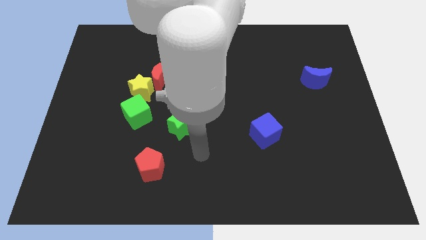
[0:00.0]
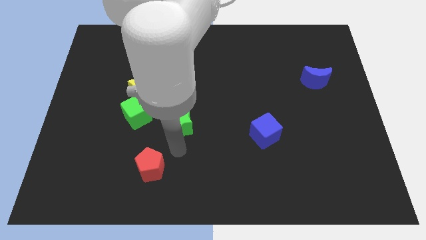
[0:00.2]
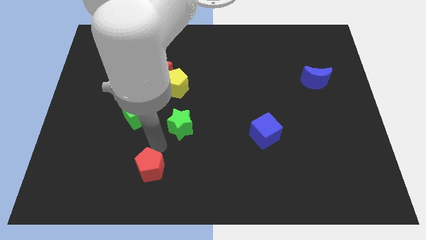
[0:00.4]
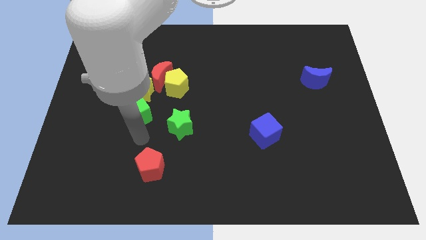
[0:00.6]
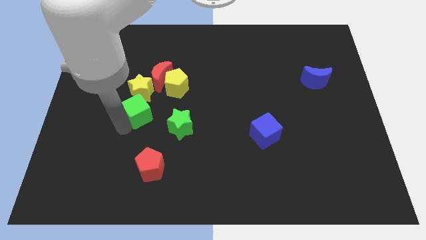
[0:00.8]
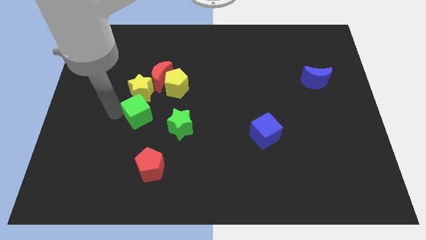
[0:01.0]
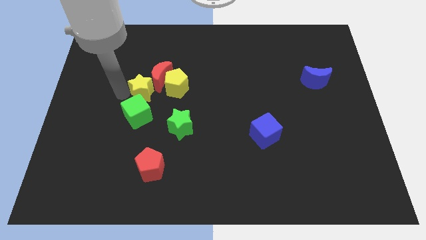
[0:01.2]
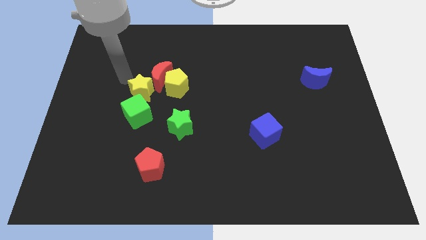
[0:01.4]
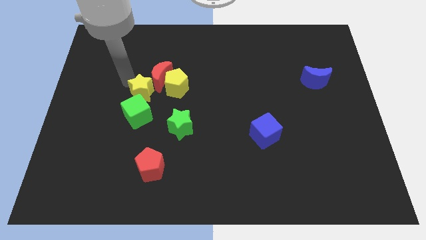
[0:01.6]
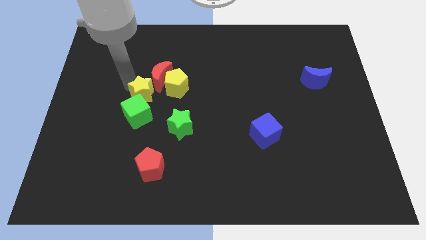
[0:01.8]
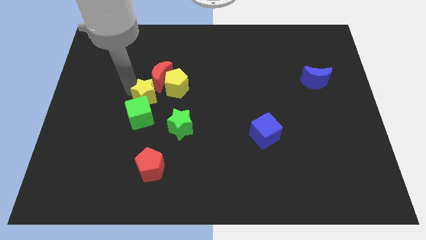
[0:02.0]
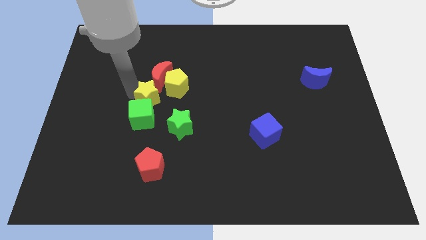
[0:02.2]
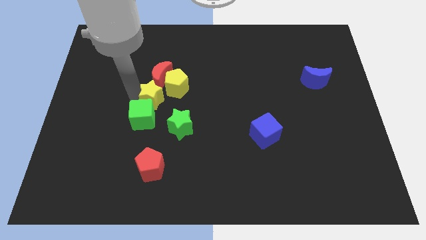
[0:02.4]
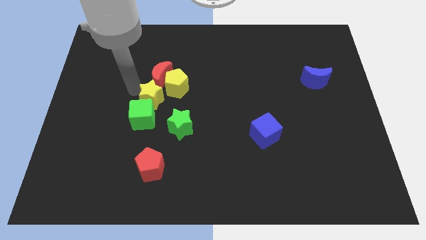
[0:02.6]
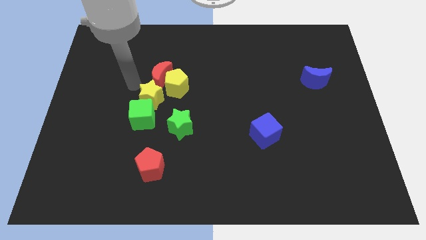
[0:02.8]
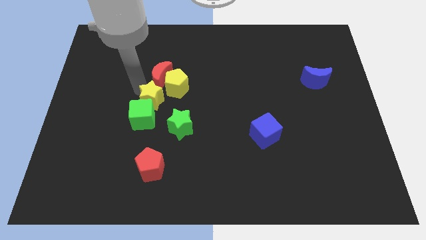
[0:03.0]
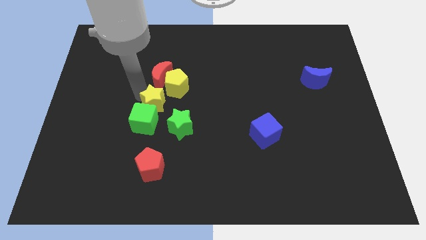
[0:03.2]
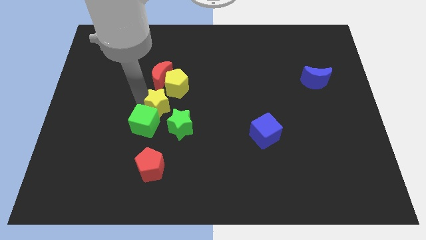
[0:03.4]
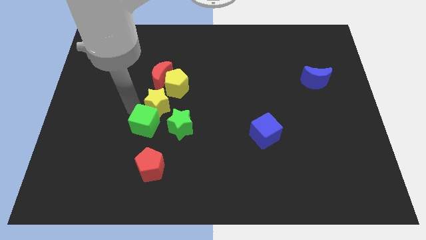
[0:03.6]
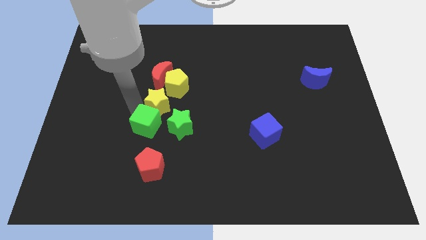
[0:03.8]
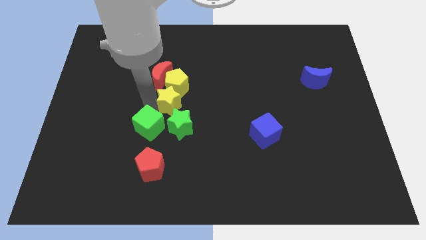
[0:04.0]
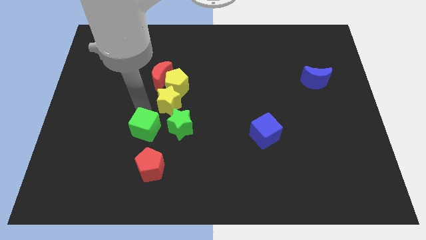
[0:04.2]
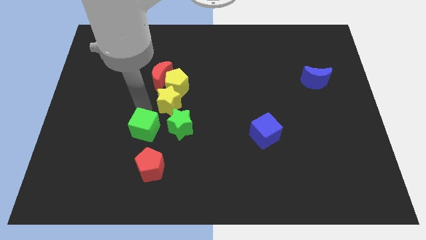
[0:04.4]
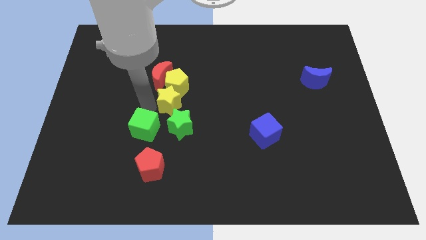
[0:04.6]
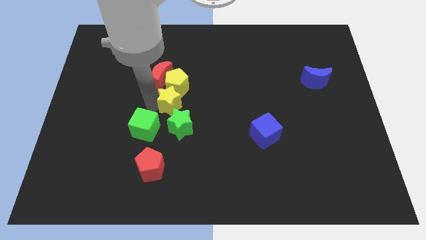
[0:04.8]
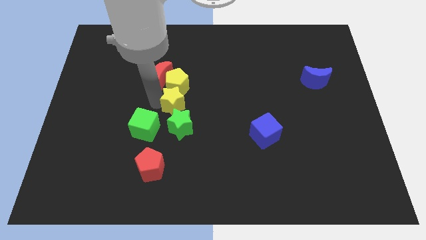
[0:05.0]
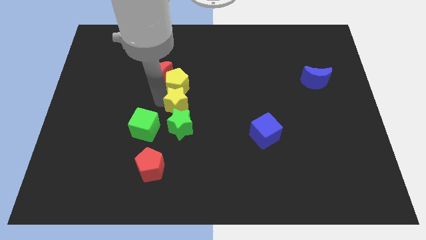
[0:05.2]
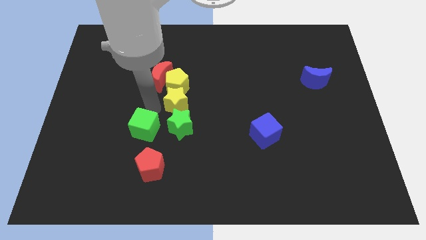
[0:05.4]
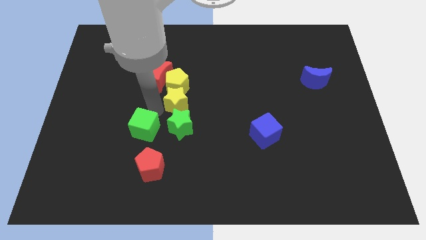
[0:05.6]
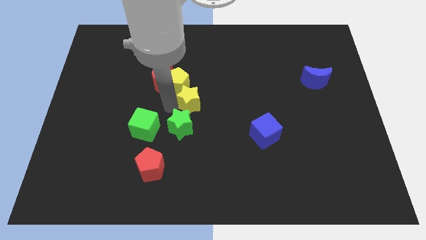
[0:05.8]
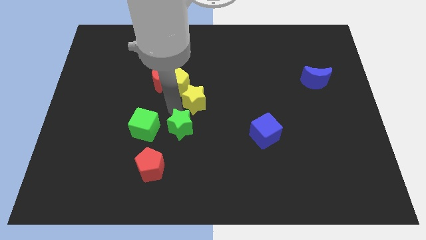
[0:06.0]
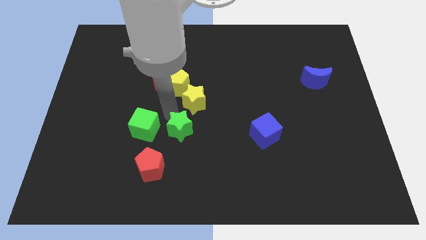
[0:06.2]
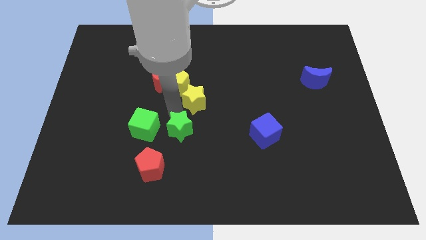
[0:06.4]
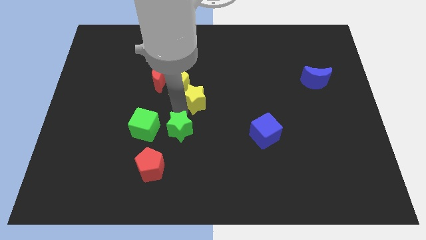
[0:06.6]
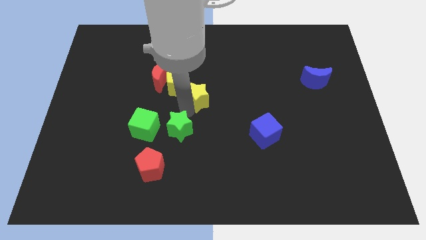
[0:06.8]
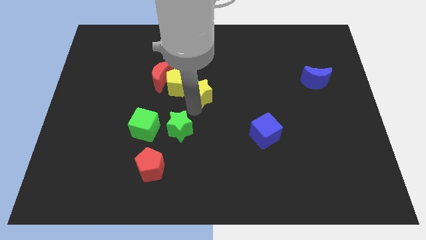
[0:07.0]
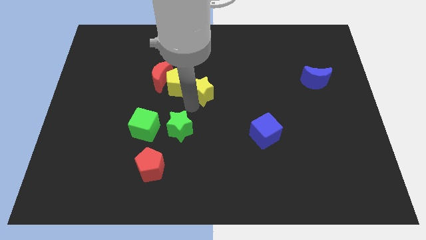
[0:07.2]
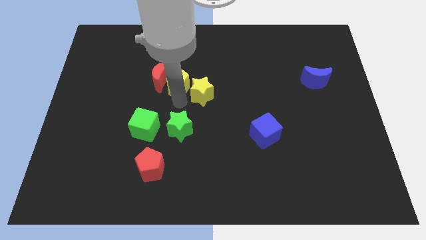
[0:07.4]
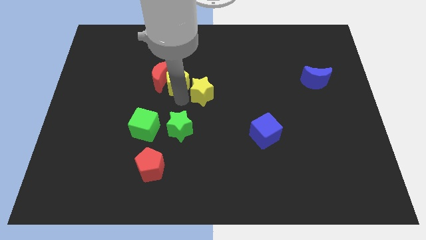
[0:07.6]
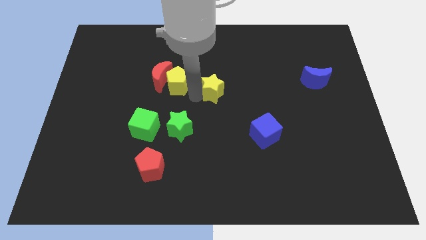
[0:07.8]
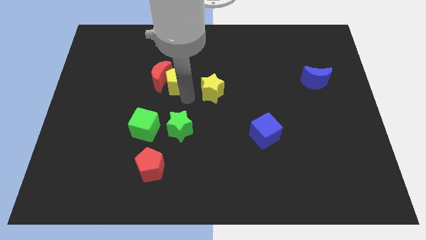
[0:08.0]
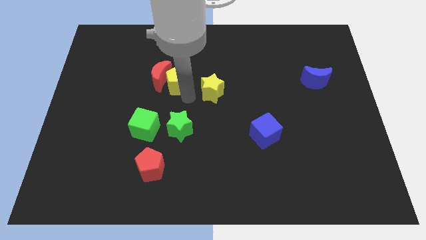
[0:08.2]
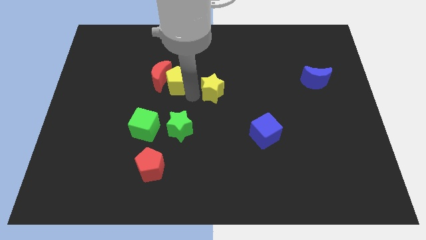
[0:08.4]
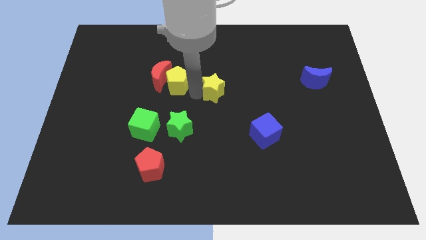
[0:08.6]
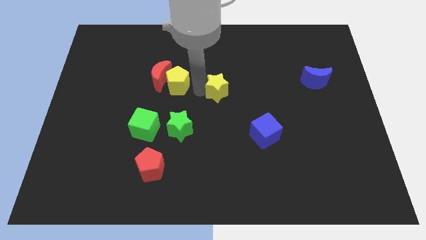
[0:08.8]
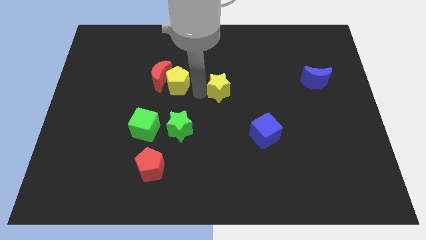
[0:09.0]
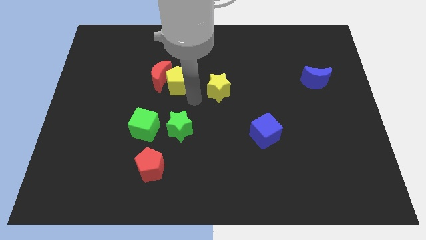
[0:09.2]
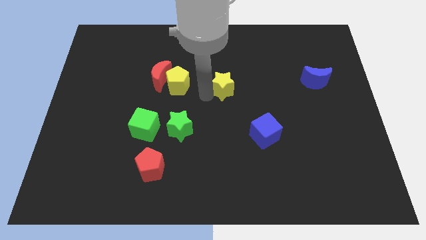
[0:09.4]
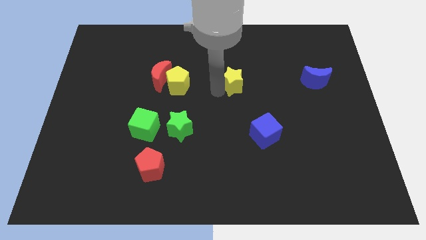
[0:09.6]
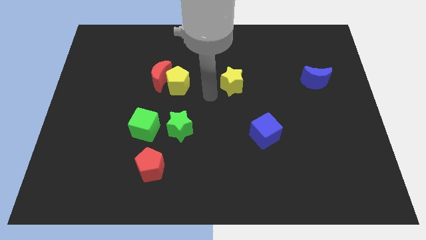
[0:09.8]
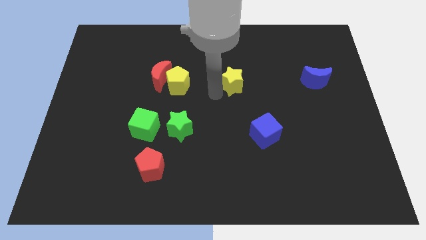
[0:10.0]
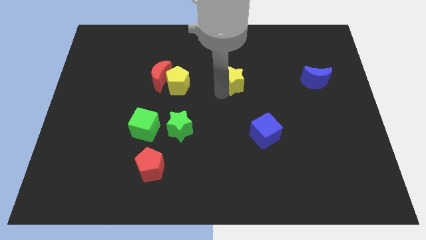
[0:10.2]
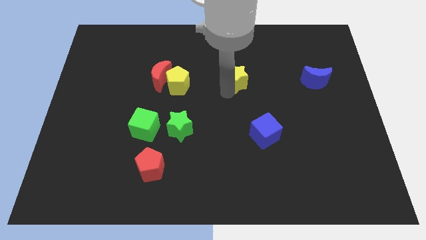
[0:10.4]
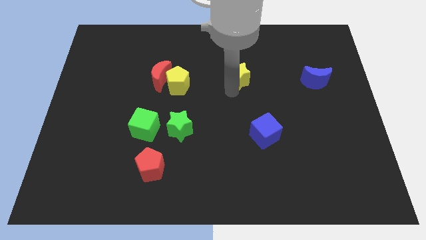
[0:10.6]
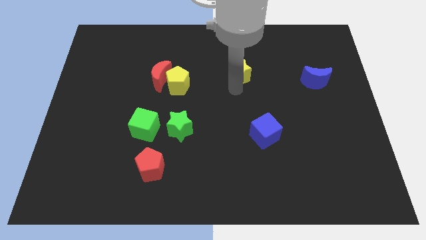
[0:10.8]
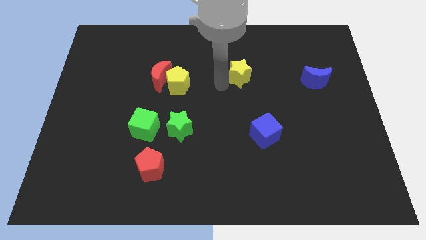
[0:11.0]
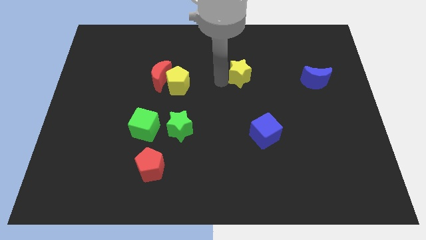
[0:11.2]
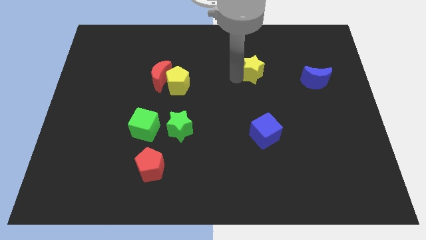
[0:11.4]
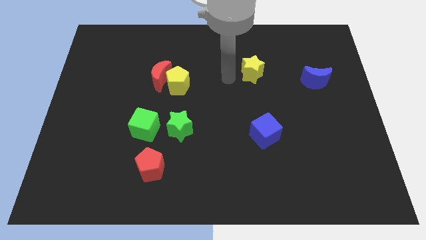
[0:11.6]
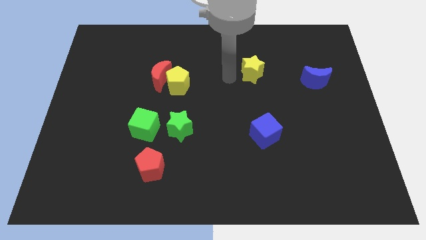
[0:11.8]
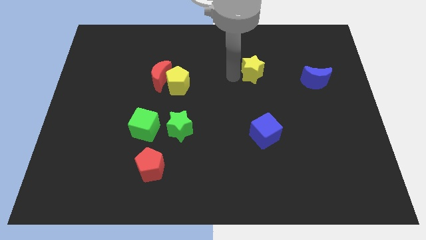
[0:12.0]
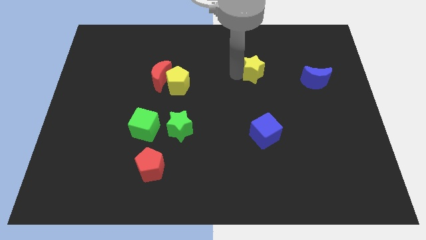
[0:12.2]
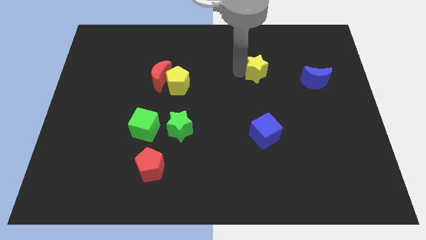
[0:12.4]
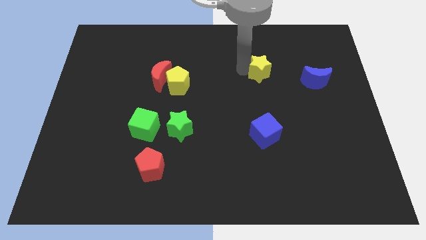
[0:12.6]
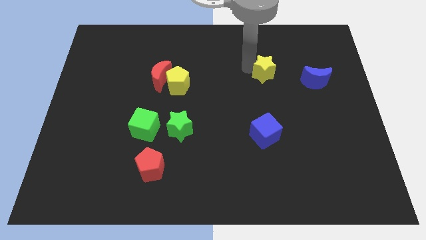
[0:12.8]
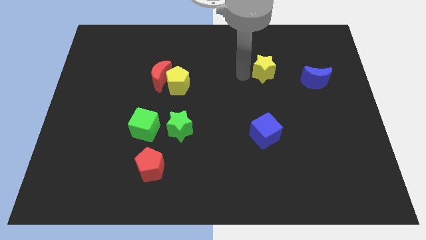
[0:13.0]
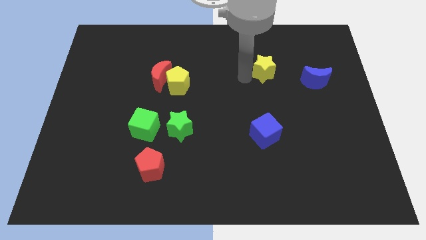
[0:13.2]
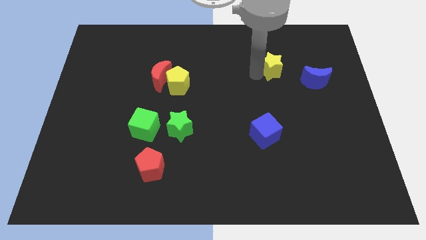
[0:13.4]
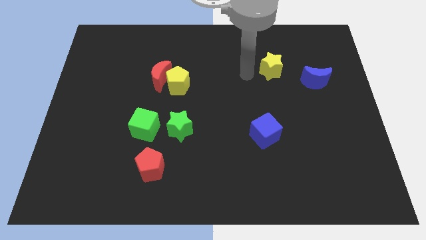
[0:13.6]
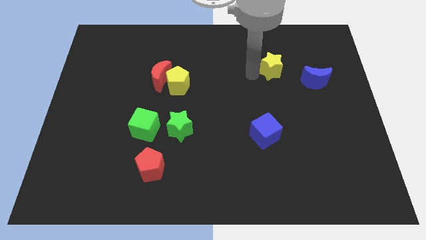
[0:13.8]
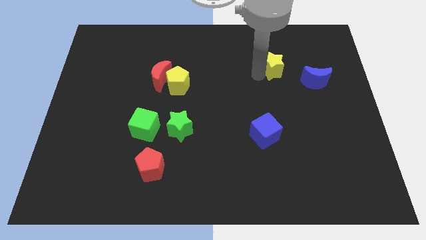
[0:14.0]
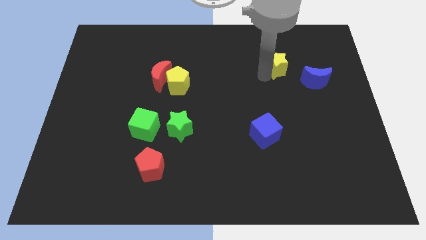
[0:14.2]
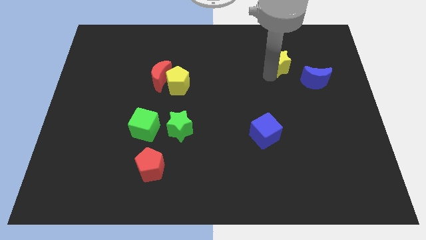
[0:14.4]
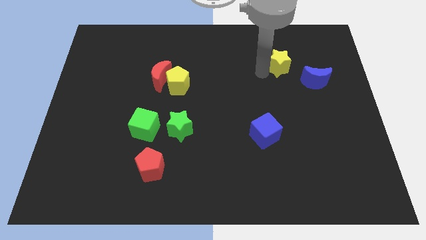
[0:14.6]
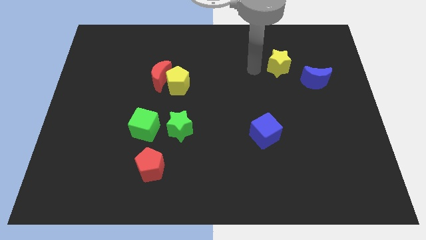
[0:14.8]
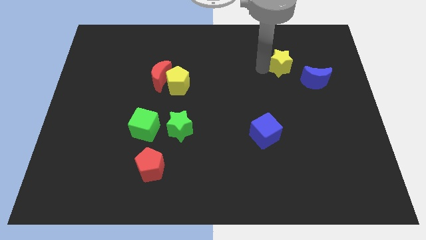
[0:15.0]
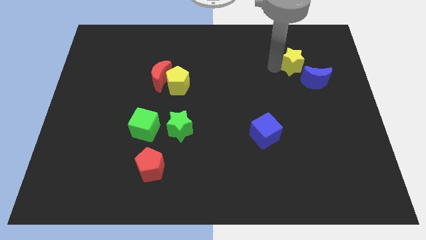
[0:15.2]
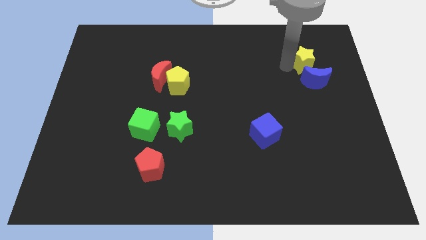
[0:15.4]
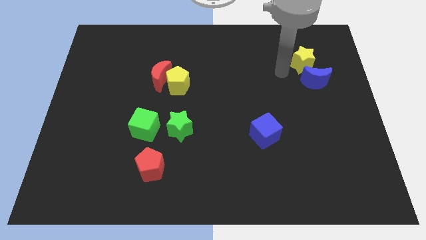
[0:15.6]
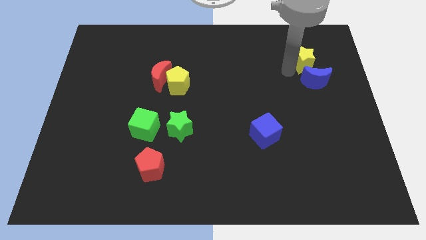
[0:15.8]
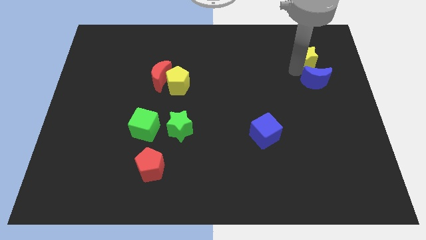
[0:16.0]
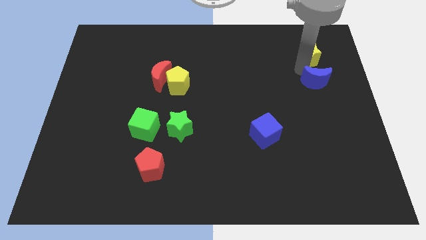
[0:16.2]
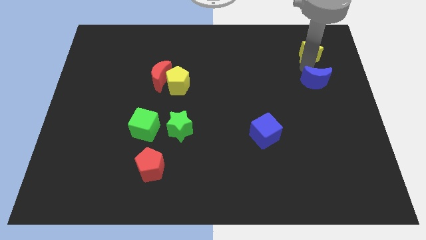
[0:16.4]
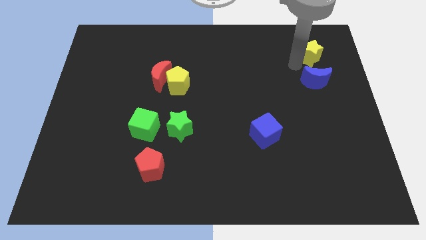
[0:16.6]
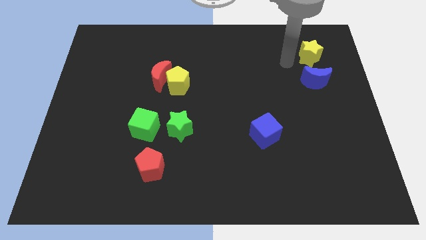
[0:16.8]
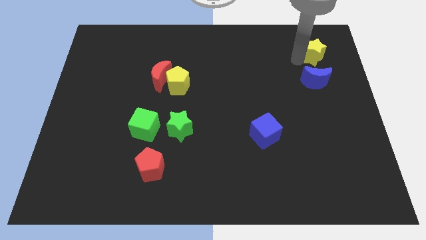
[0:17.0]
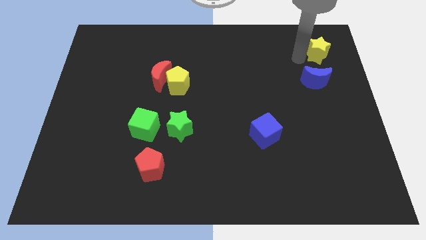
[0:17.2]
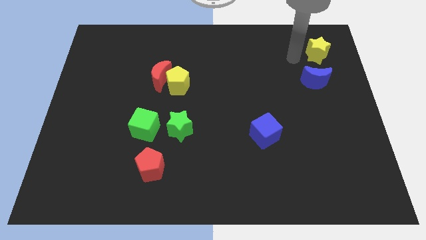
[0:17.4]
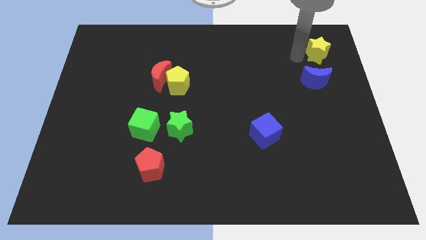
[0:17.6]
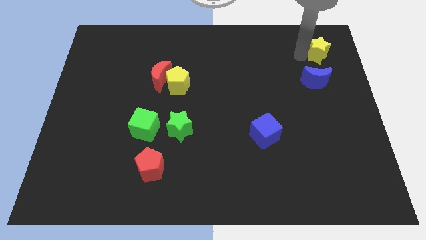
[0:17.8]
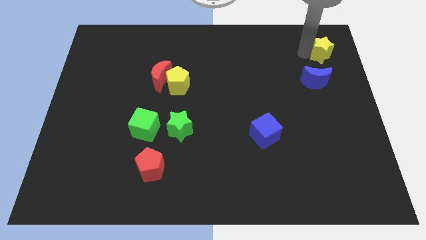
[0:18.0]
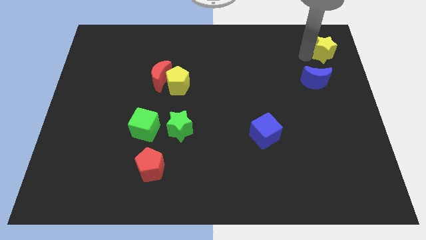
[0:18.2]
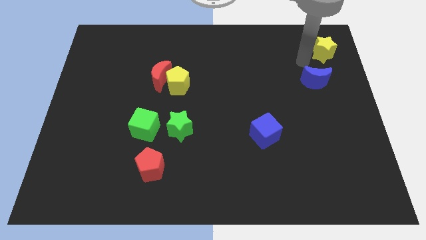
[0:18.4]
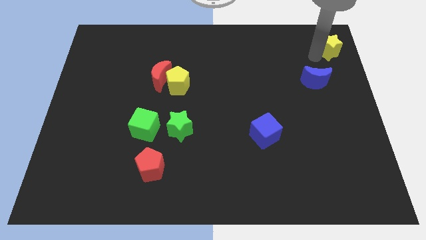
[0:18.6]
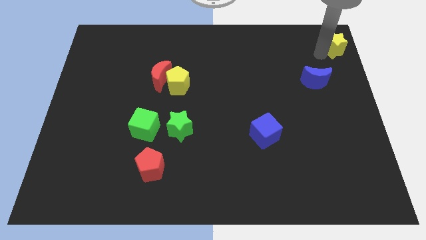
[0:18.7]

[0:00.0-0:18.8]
move the yellow star to the top right corner
